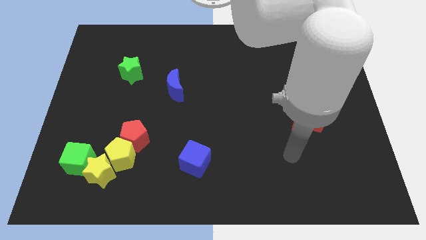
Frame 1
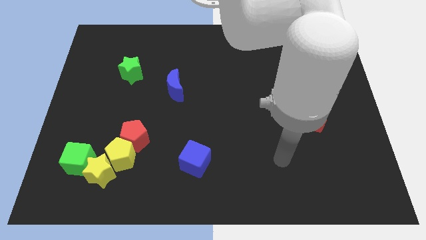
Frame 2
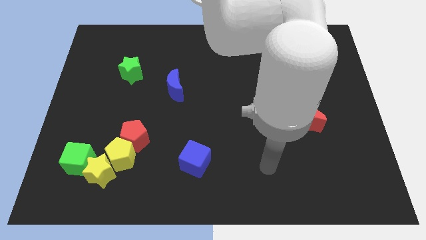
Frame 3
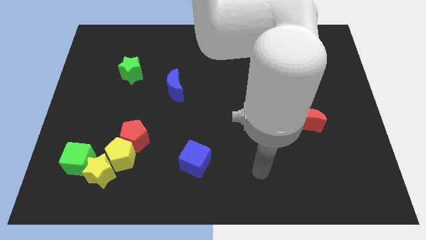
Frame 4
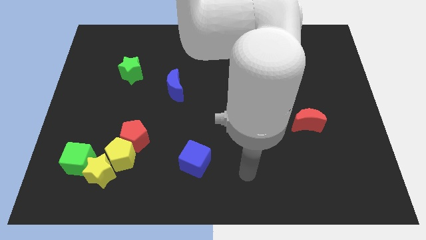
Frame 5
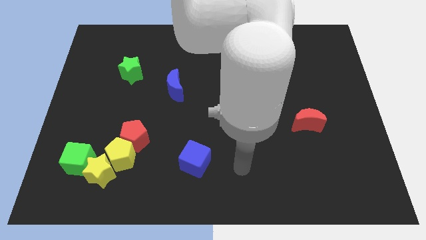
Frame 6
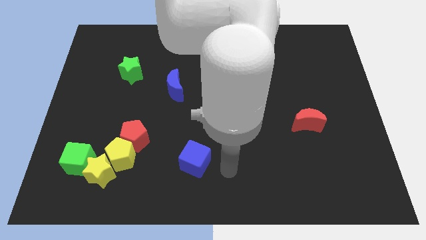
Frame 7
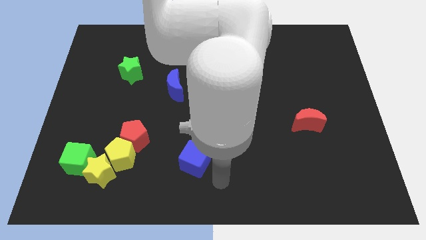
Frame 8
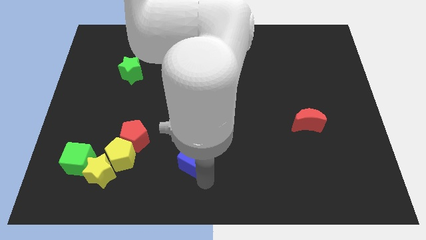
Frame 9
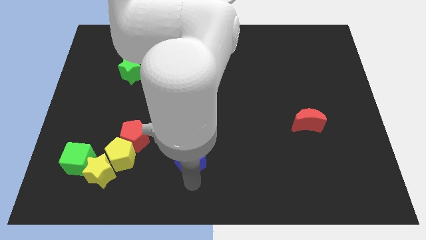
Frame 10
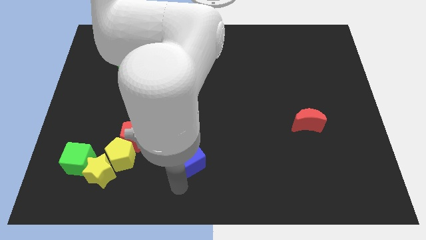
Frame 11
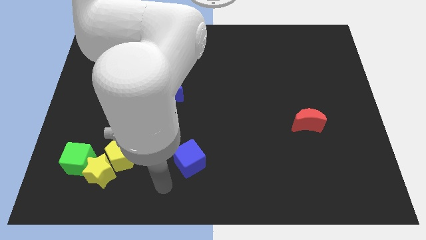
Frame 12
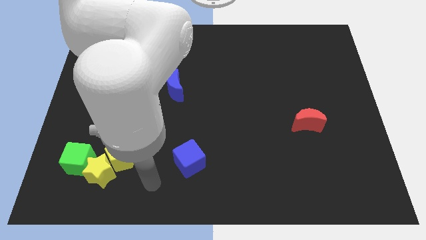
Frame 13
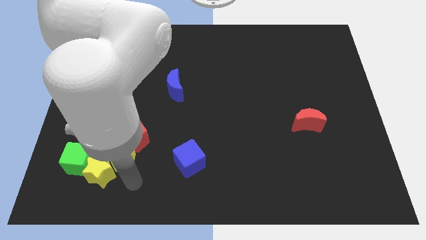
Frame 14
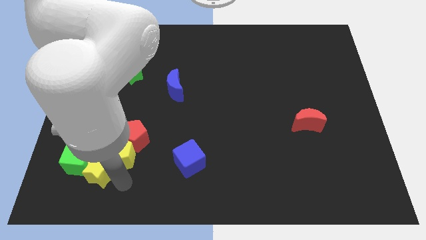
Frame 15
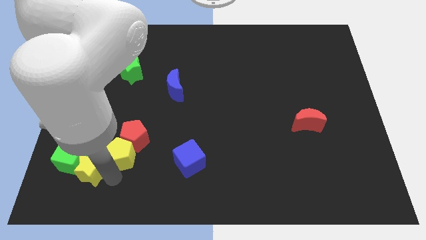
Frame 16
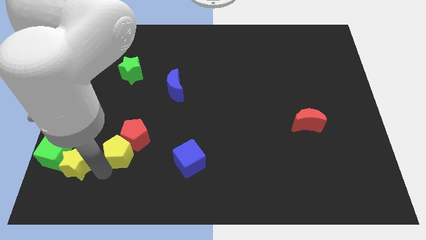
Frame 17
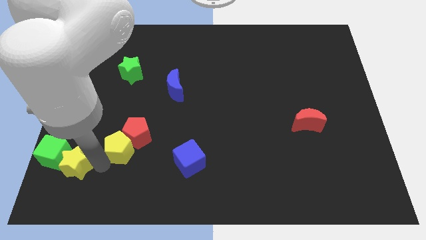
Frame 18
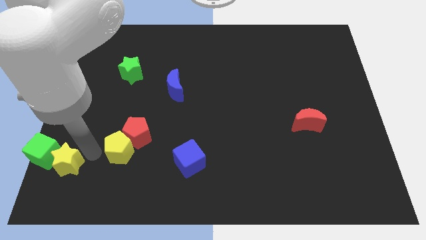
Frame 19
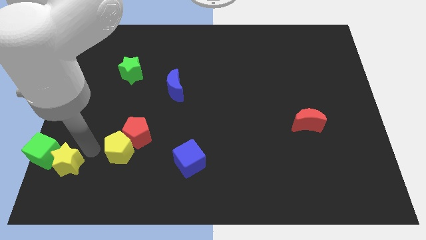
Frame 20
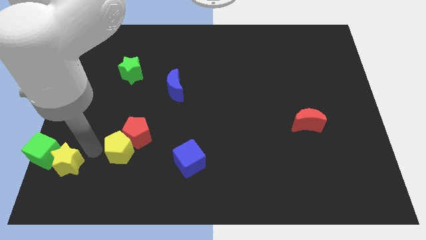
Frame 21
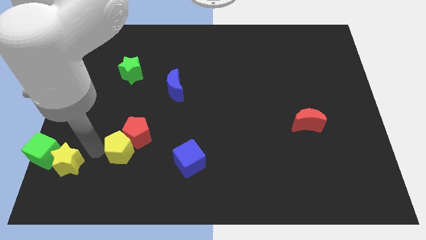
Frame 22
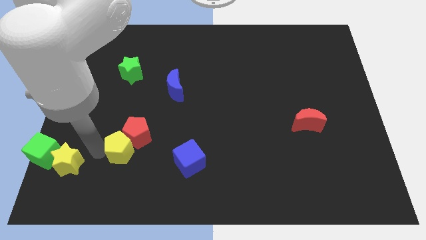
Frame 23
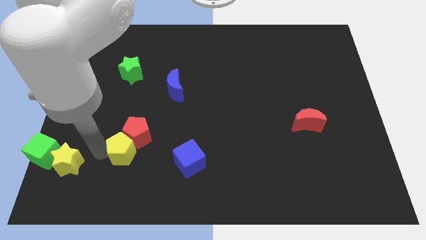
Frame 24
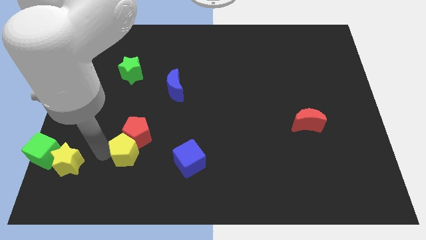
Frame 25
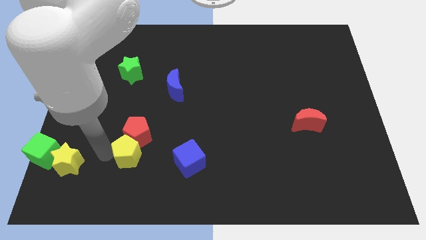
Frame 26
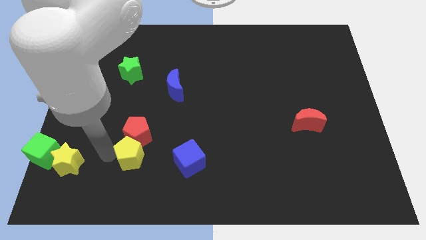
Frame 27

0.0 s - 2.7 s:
pull the yellow pentagon apart from the red pentagon, yellow star, and green cube

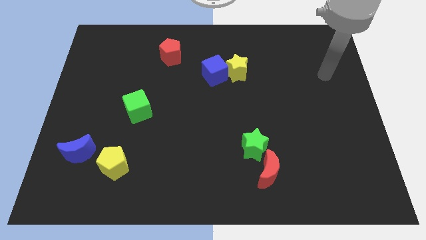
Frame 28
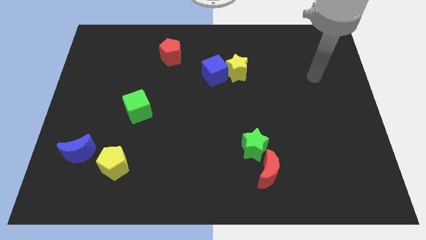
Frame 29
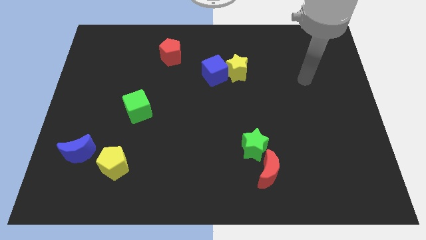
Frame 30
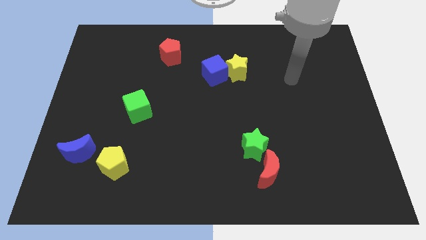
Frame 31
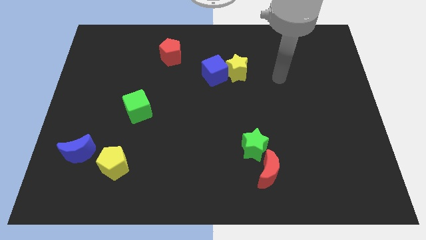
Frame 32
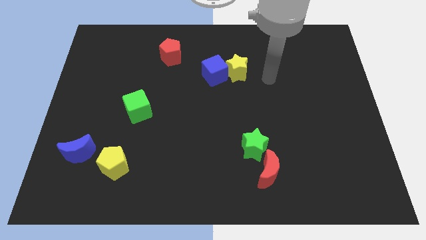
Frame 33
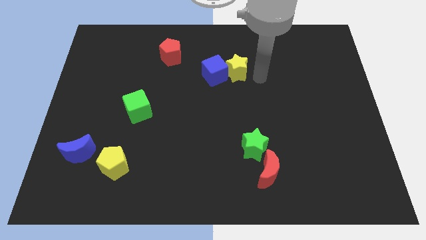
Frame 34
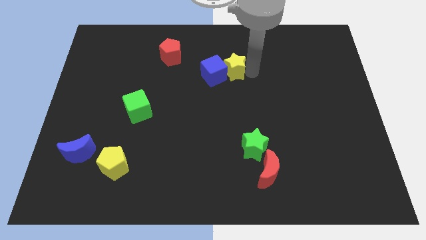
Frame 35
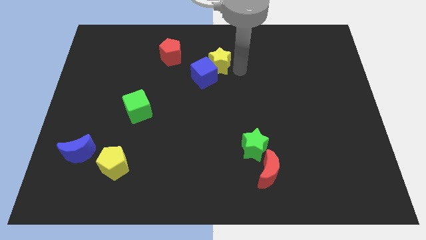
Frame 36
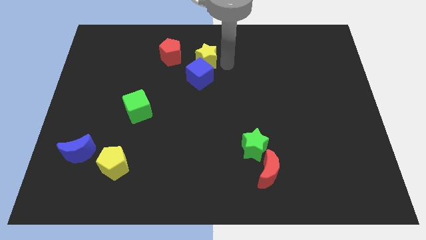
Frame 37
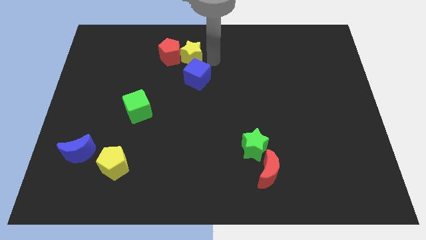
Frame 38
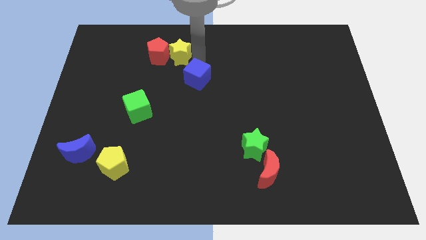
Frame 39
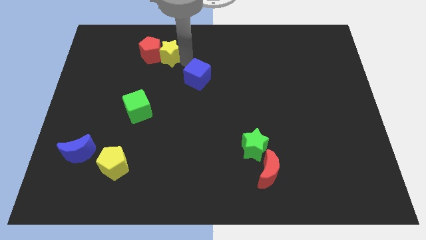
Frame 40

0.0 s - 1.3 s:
separate the blue cube from the yellow star

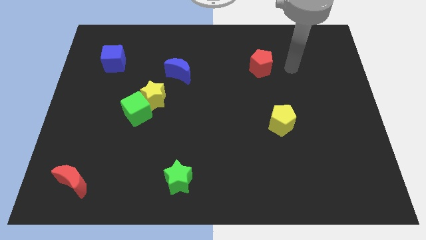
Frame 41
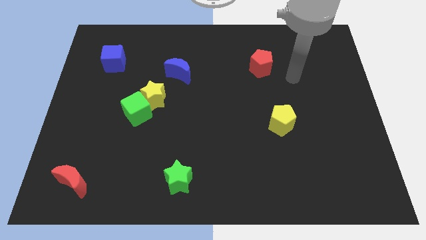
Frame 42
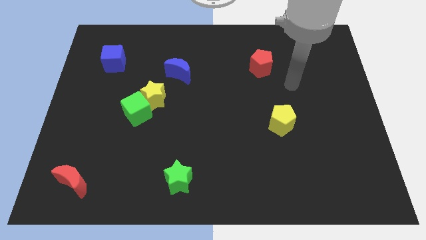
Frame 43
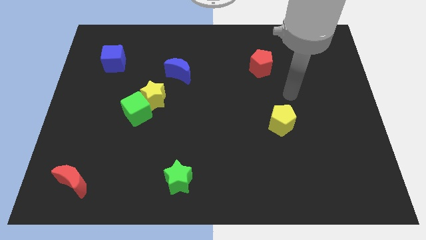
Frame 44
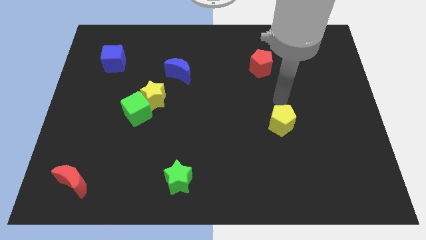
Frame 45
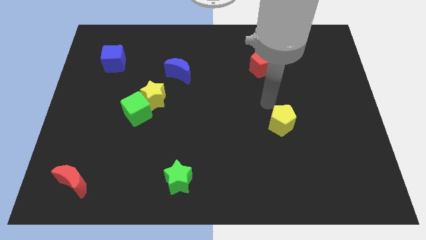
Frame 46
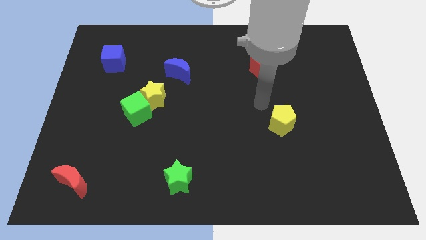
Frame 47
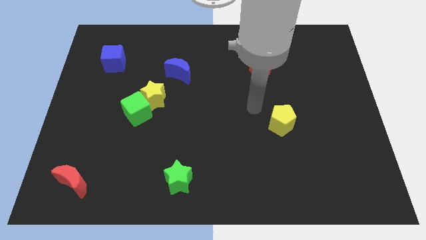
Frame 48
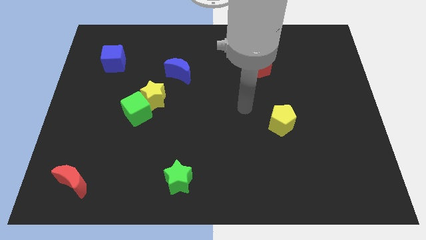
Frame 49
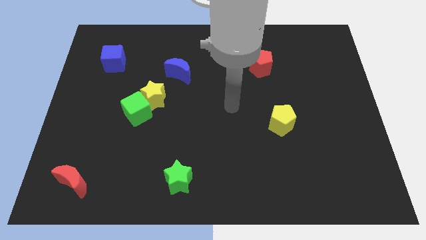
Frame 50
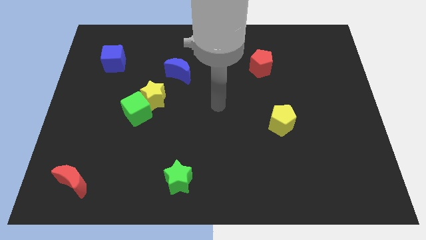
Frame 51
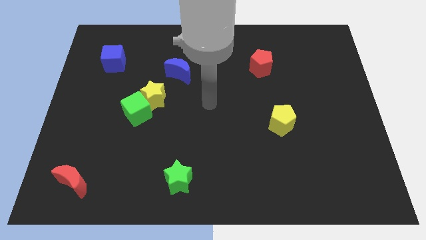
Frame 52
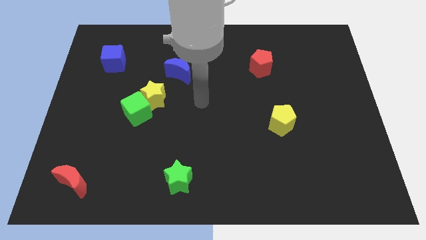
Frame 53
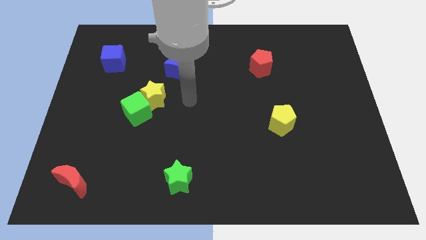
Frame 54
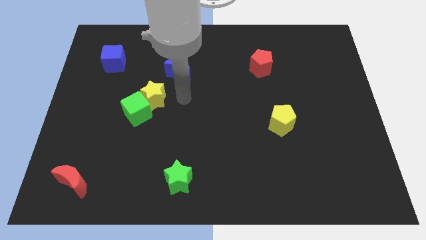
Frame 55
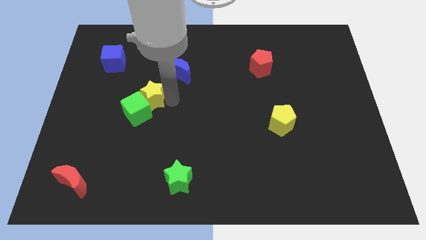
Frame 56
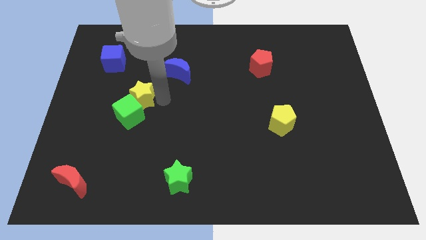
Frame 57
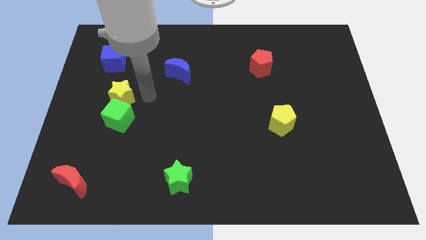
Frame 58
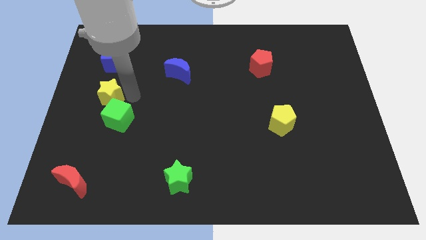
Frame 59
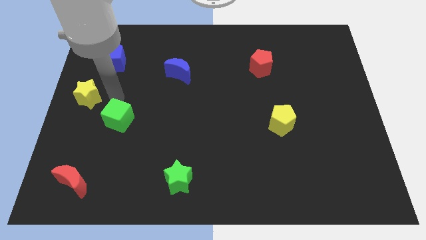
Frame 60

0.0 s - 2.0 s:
move the green cube away from the yellow star

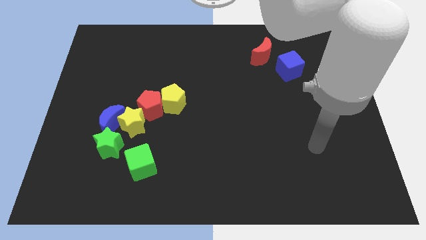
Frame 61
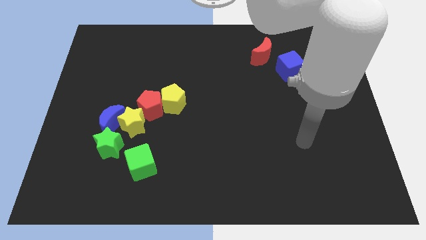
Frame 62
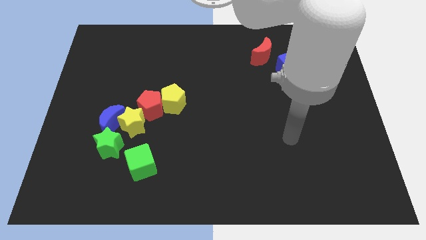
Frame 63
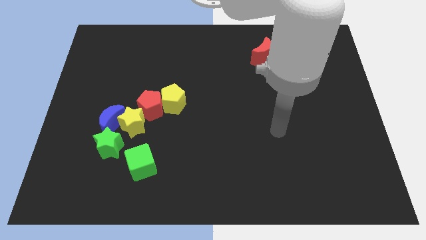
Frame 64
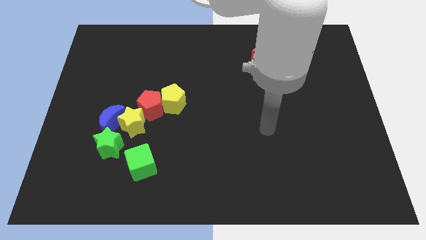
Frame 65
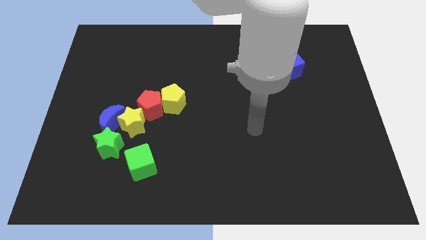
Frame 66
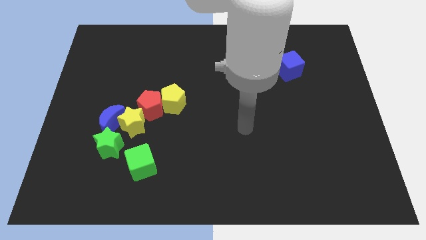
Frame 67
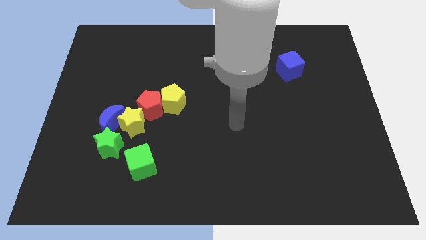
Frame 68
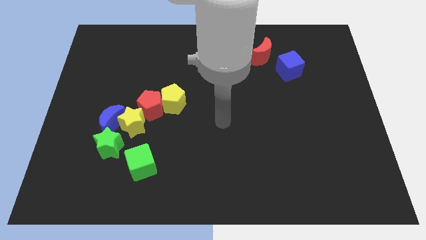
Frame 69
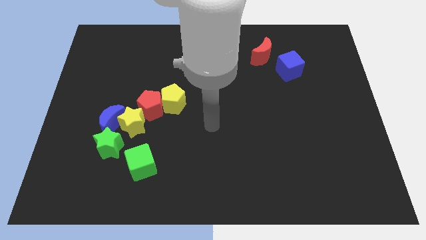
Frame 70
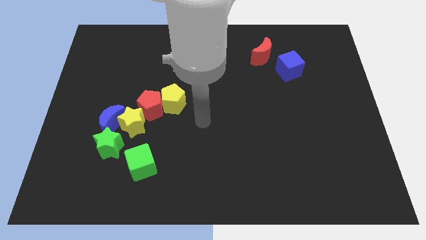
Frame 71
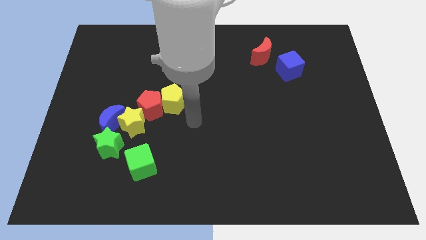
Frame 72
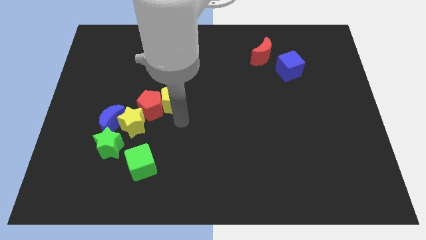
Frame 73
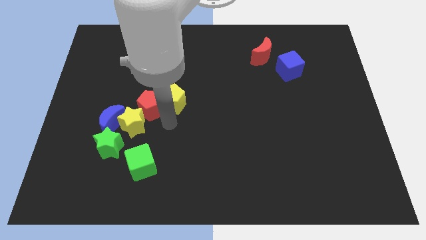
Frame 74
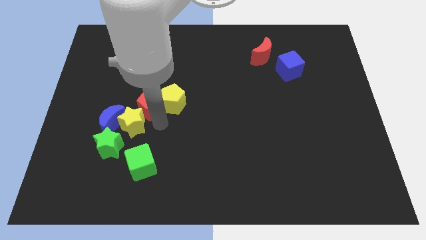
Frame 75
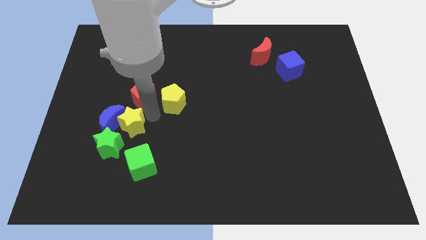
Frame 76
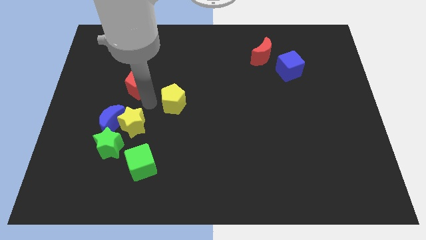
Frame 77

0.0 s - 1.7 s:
pull the yellow pentagon apart from the red pentagon

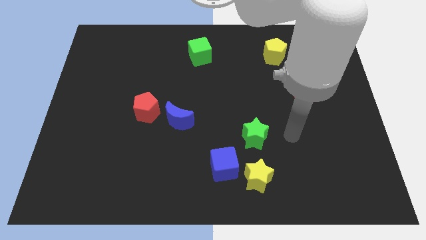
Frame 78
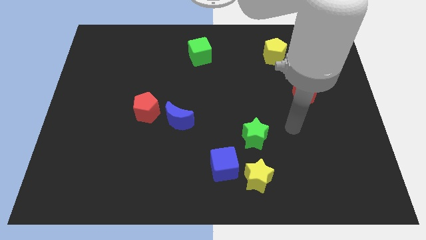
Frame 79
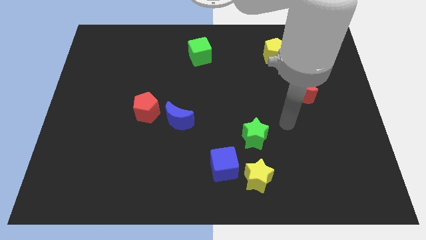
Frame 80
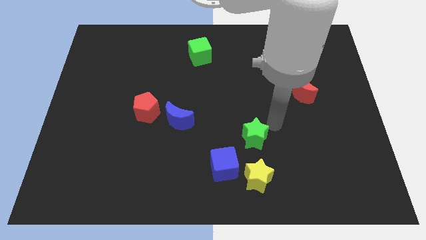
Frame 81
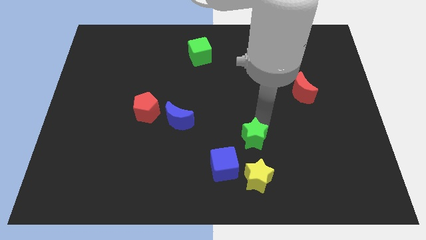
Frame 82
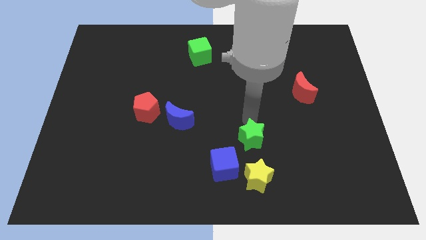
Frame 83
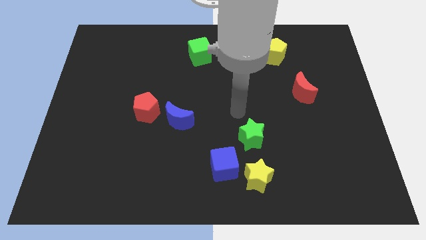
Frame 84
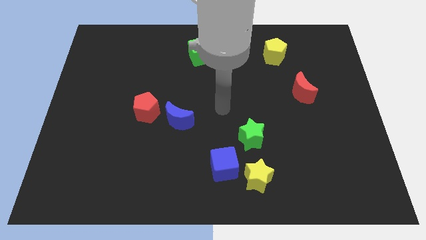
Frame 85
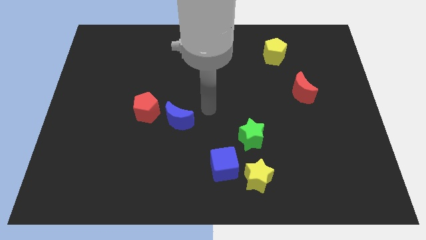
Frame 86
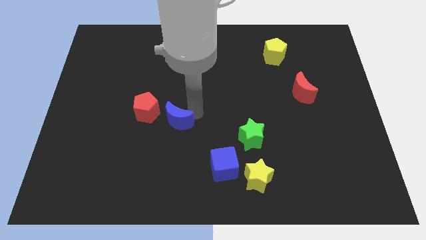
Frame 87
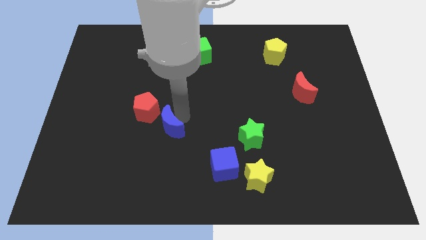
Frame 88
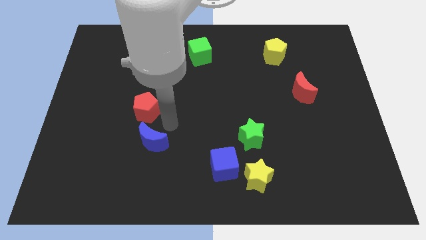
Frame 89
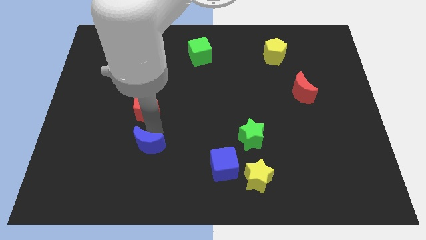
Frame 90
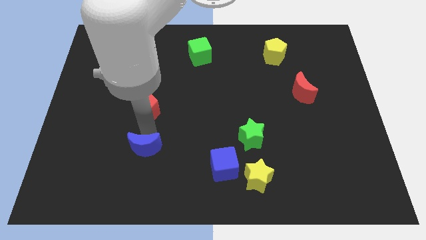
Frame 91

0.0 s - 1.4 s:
move the red pentagon away from the blue moon
